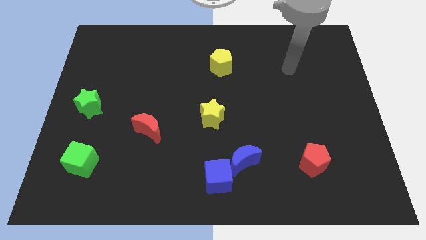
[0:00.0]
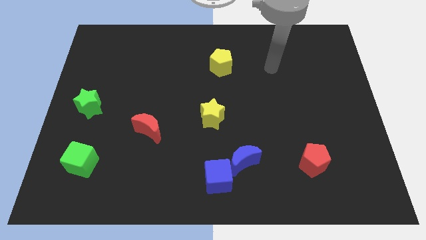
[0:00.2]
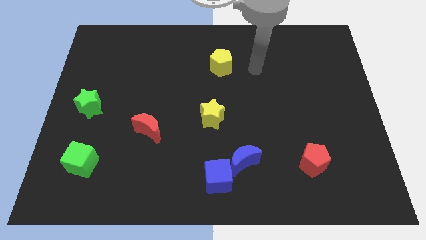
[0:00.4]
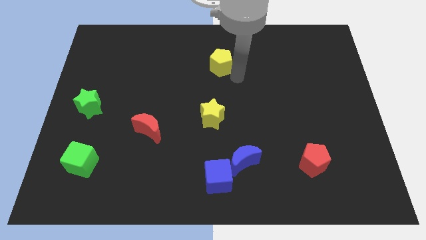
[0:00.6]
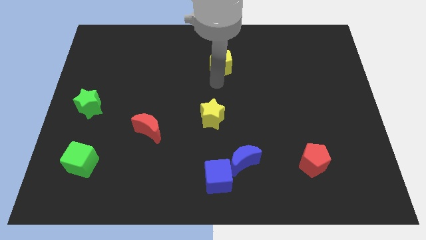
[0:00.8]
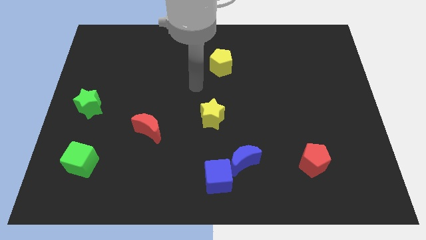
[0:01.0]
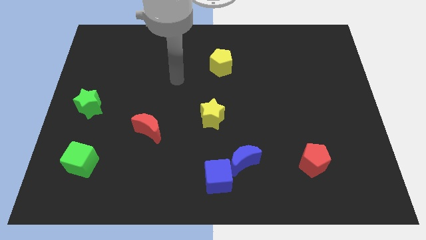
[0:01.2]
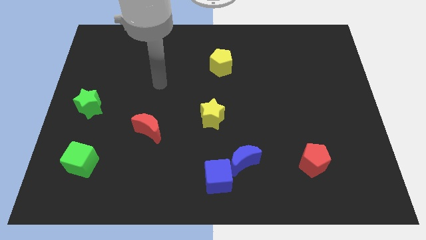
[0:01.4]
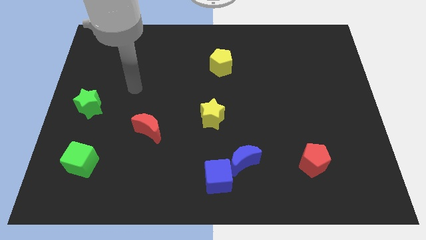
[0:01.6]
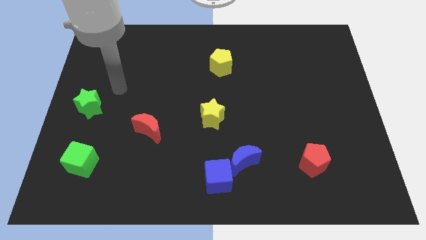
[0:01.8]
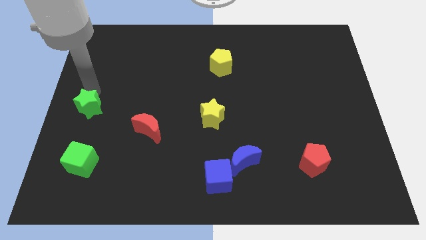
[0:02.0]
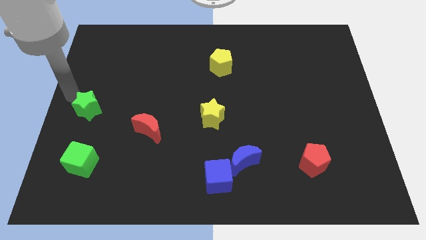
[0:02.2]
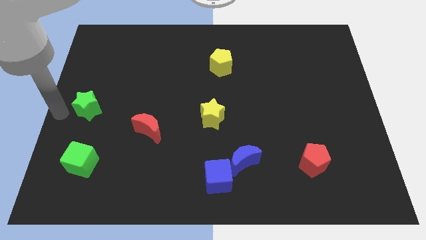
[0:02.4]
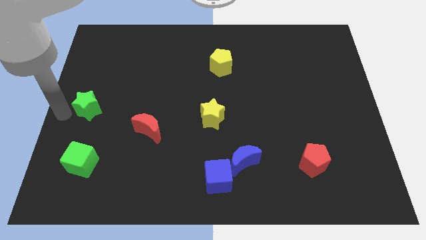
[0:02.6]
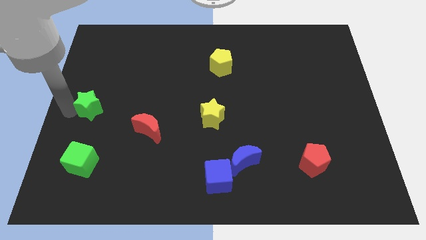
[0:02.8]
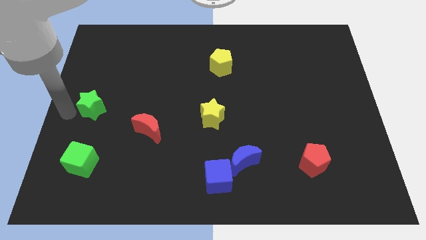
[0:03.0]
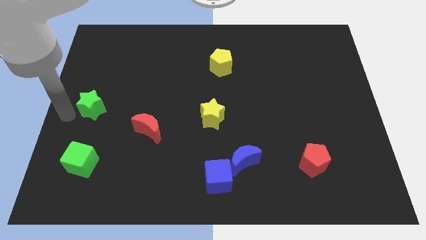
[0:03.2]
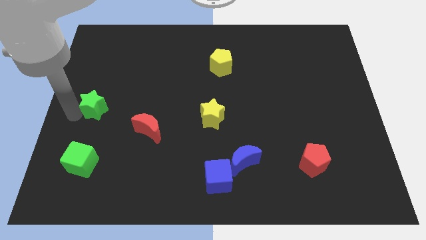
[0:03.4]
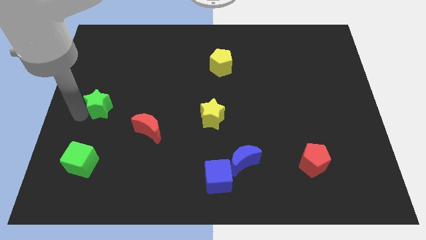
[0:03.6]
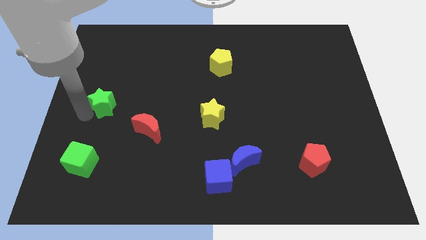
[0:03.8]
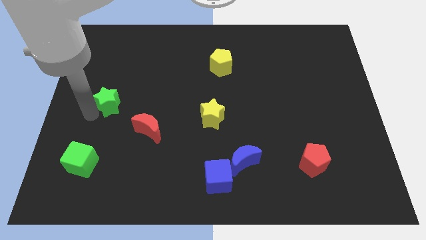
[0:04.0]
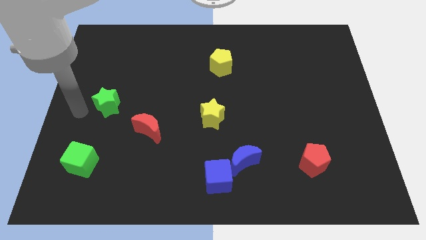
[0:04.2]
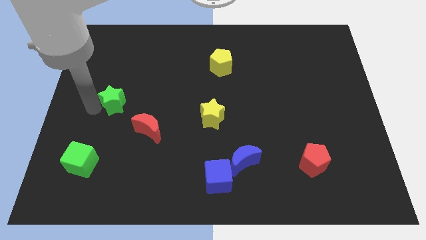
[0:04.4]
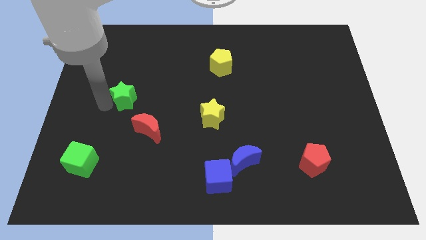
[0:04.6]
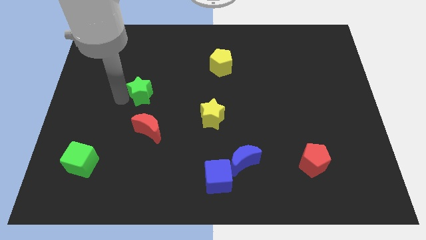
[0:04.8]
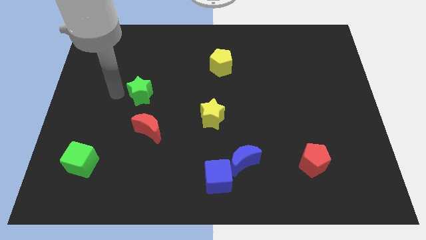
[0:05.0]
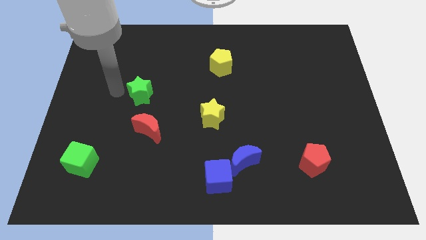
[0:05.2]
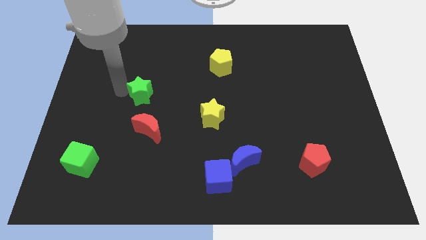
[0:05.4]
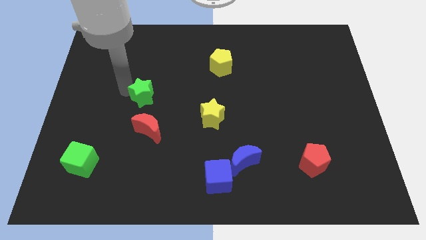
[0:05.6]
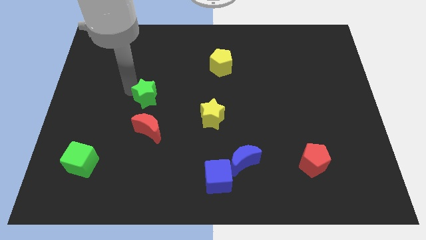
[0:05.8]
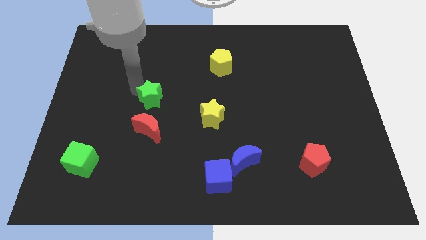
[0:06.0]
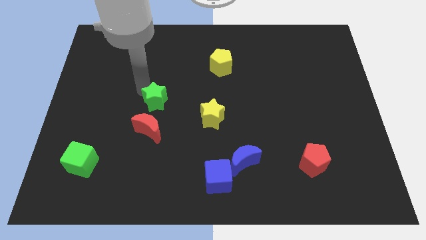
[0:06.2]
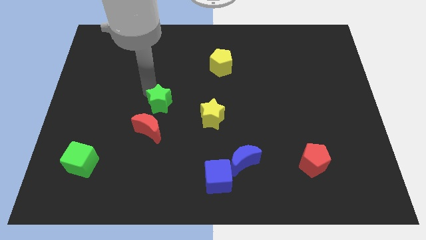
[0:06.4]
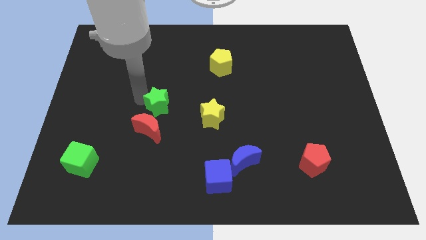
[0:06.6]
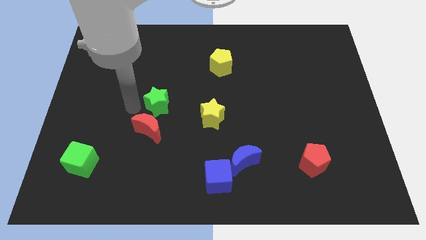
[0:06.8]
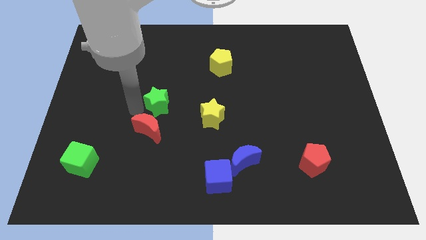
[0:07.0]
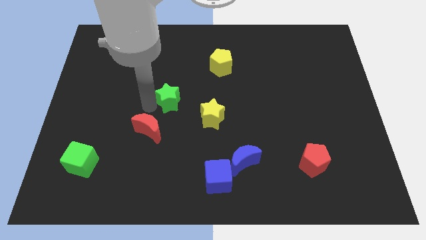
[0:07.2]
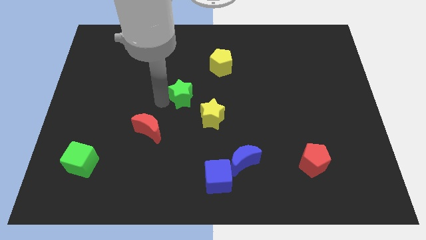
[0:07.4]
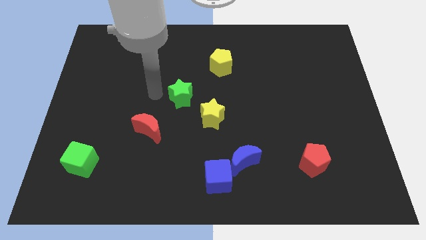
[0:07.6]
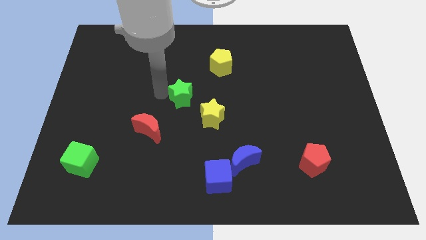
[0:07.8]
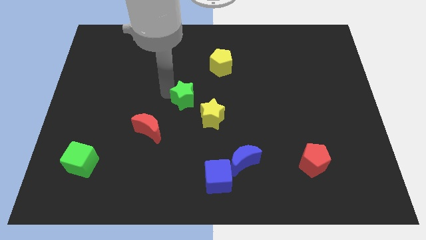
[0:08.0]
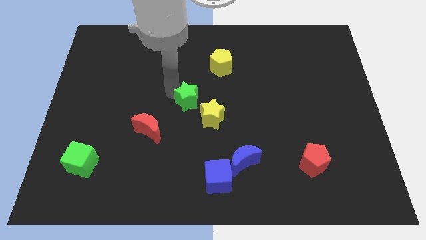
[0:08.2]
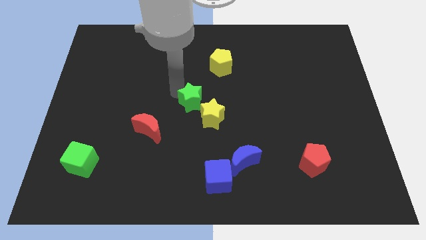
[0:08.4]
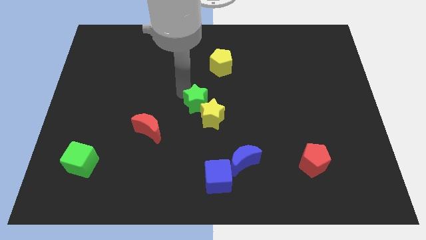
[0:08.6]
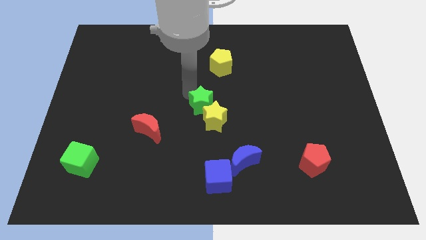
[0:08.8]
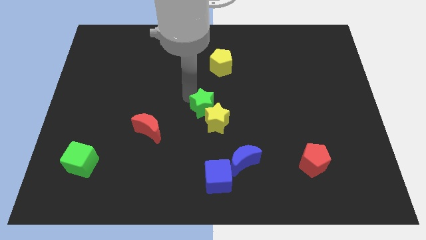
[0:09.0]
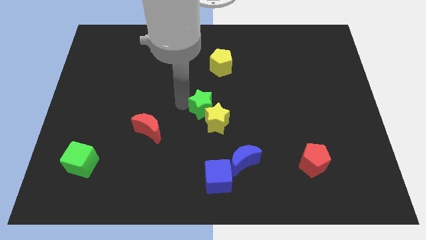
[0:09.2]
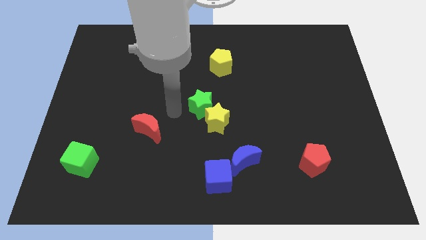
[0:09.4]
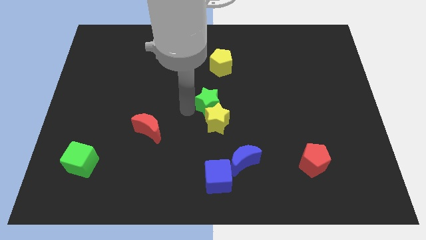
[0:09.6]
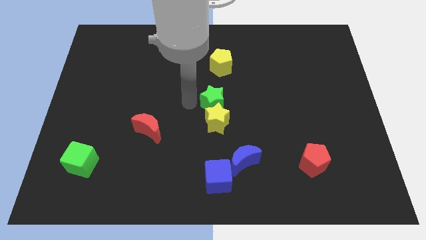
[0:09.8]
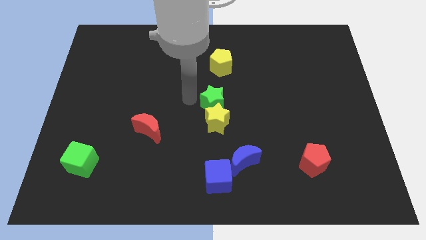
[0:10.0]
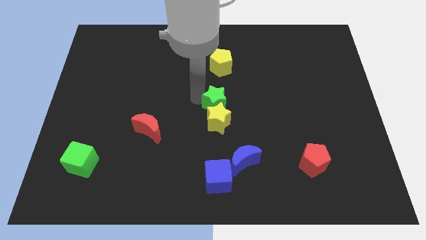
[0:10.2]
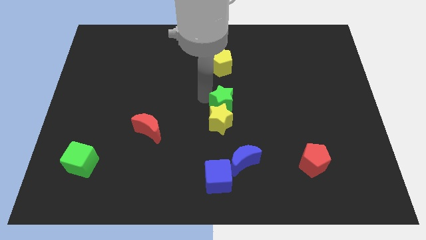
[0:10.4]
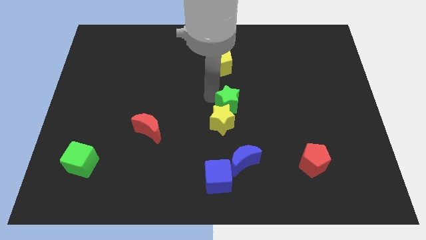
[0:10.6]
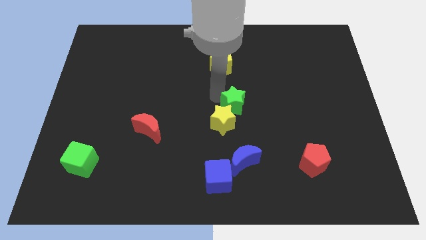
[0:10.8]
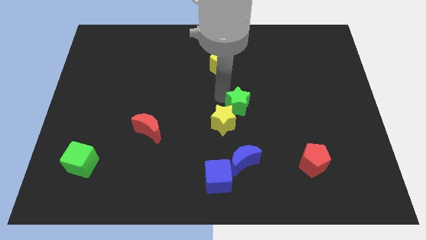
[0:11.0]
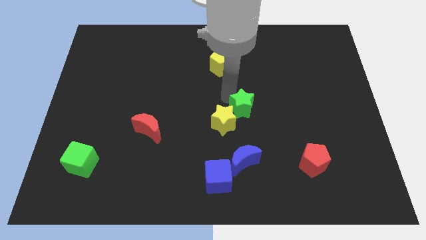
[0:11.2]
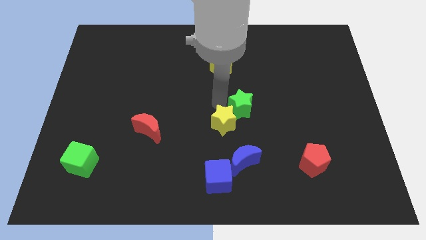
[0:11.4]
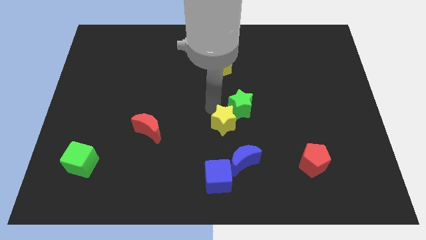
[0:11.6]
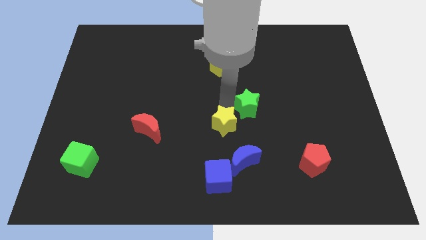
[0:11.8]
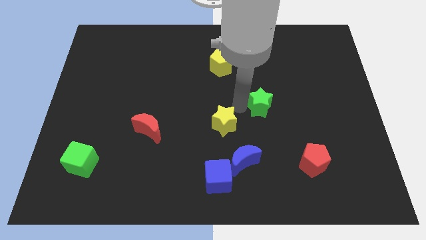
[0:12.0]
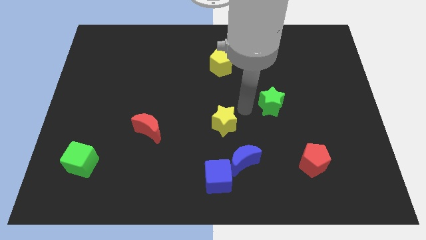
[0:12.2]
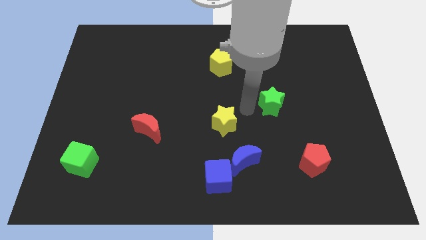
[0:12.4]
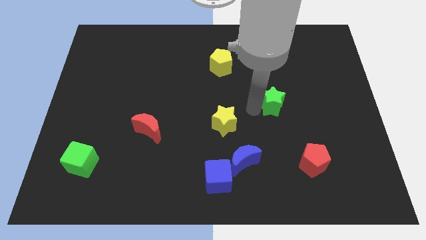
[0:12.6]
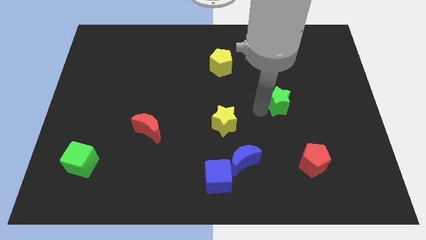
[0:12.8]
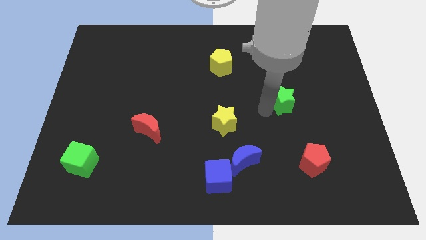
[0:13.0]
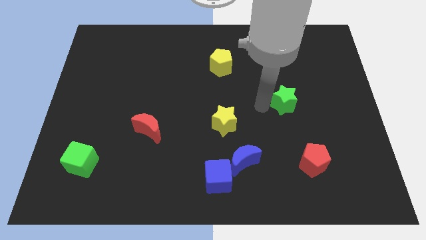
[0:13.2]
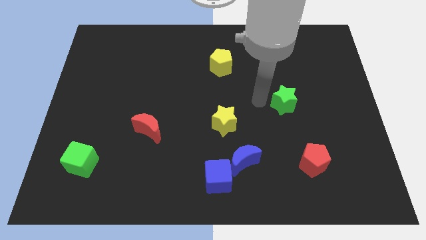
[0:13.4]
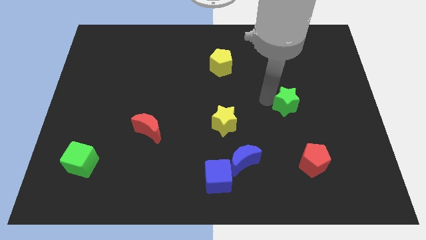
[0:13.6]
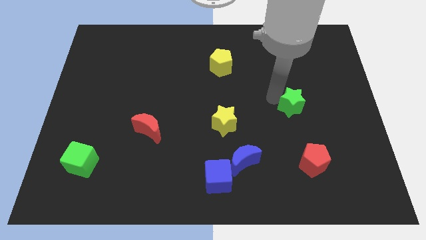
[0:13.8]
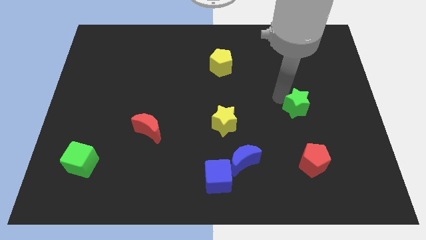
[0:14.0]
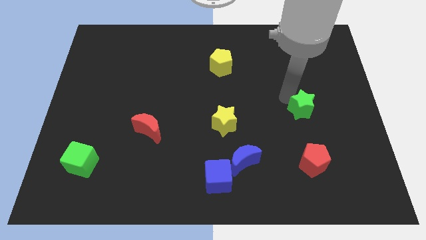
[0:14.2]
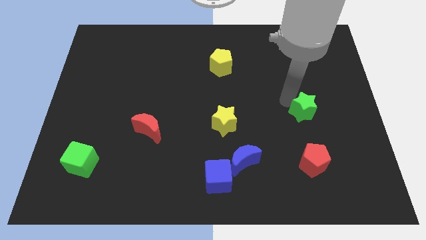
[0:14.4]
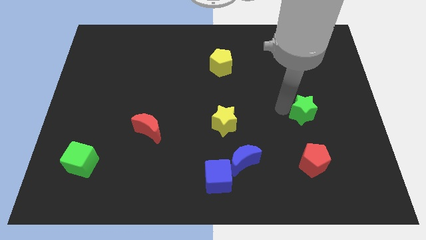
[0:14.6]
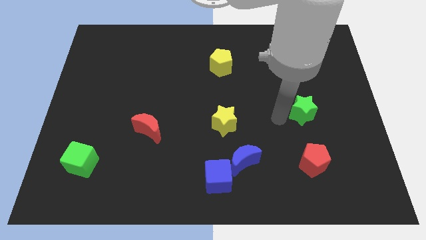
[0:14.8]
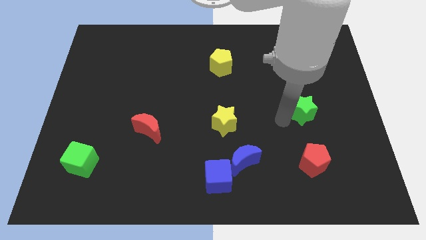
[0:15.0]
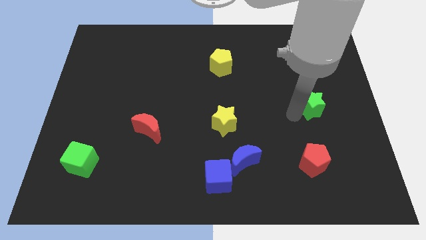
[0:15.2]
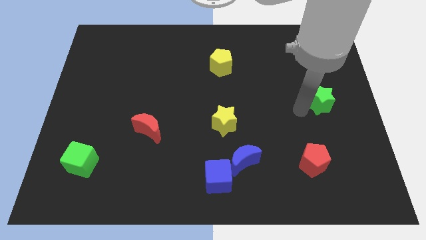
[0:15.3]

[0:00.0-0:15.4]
slide the green star to the right side

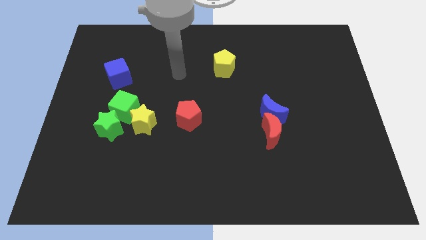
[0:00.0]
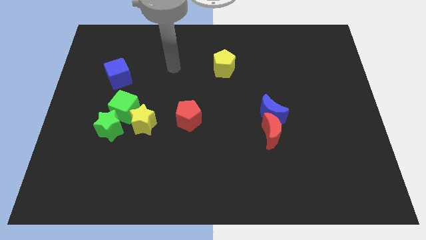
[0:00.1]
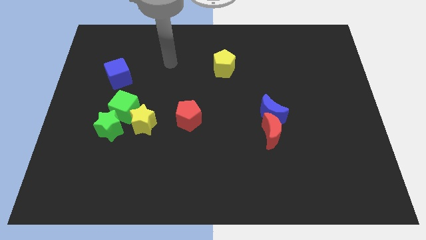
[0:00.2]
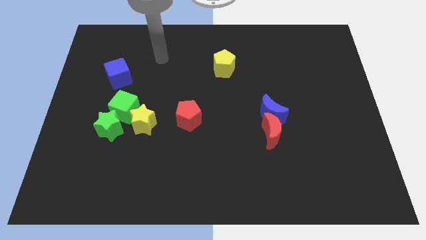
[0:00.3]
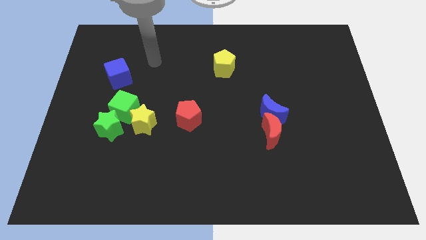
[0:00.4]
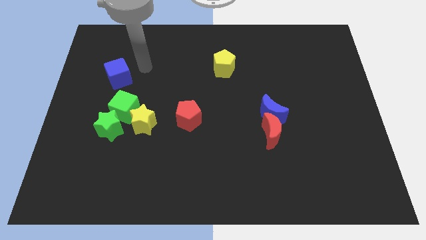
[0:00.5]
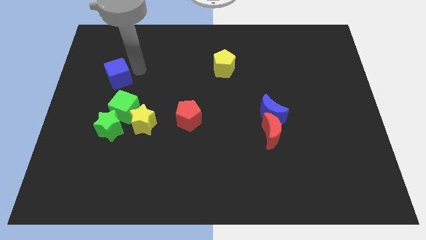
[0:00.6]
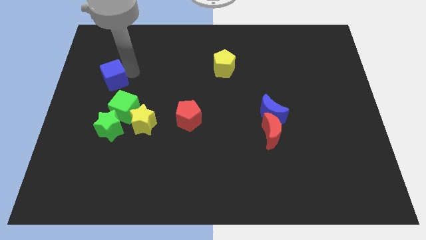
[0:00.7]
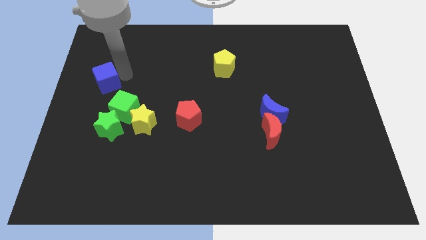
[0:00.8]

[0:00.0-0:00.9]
put the blue cube to the center left
